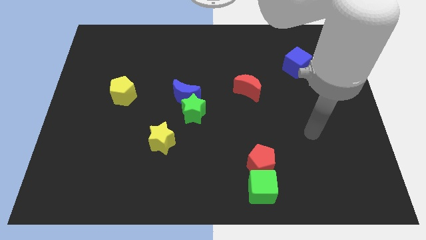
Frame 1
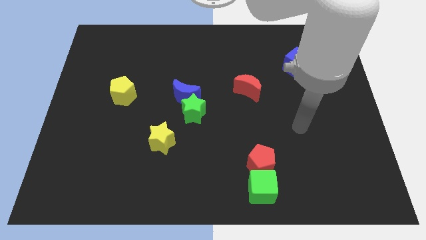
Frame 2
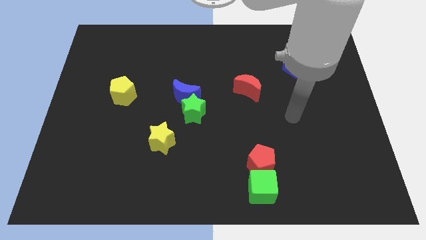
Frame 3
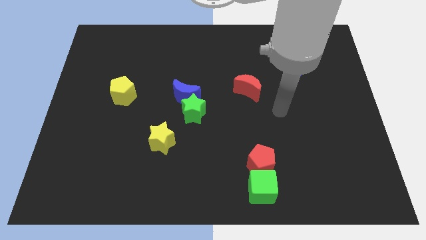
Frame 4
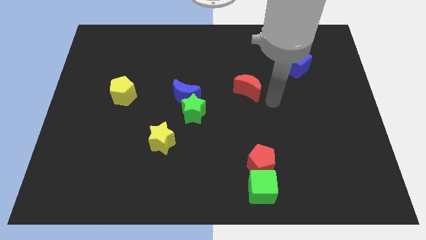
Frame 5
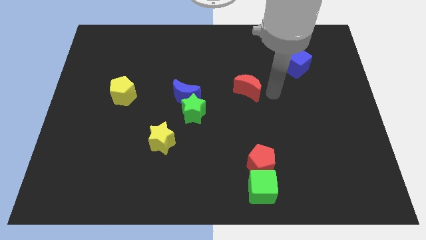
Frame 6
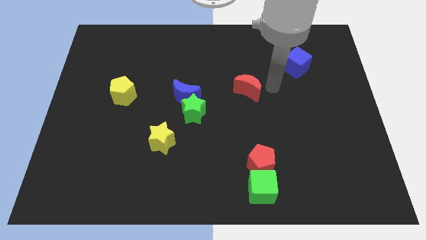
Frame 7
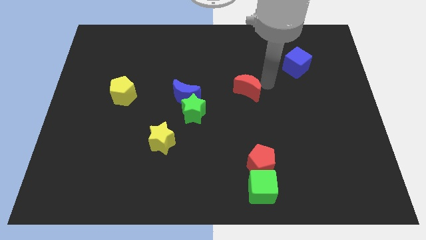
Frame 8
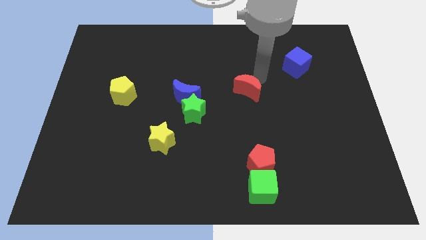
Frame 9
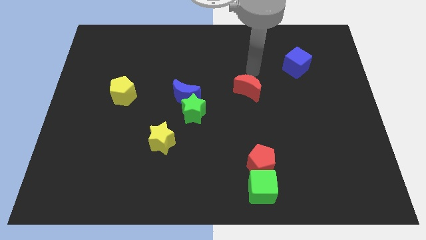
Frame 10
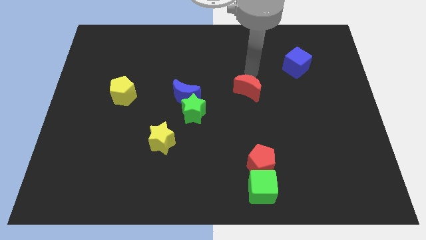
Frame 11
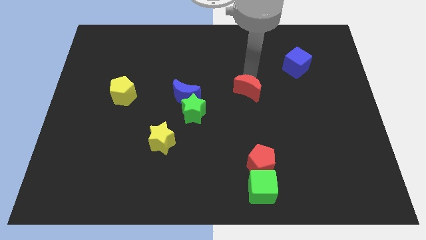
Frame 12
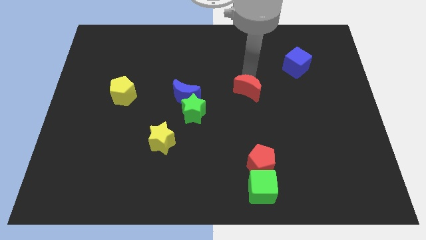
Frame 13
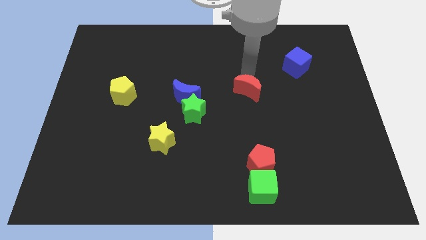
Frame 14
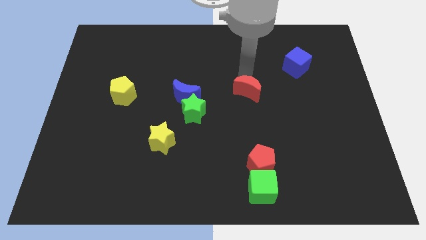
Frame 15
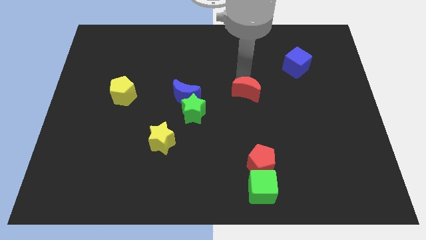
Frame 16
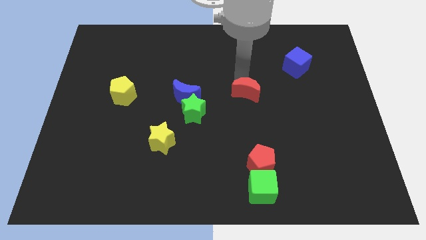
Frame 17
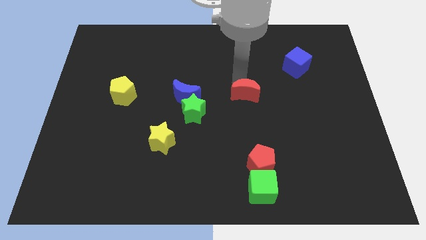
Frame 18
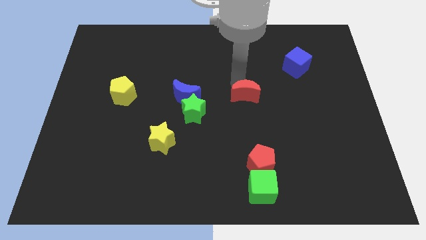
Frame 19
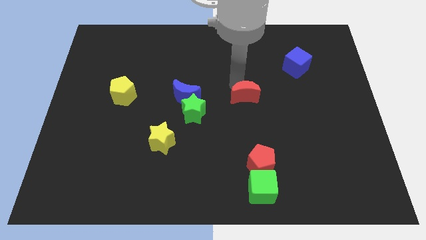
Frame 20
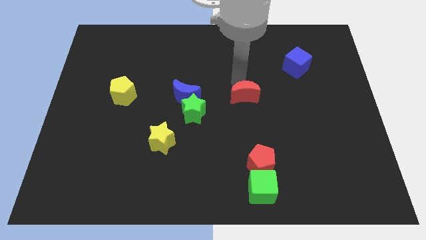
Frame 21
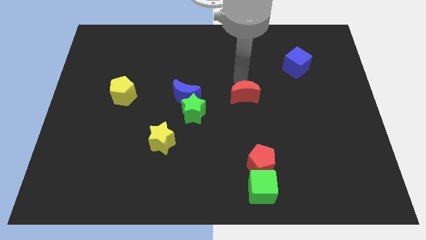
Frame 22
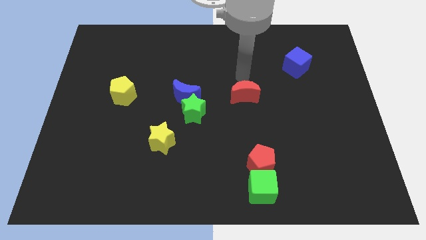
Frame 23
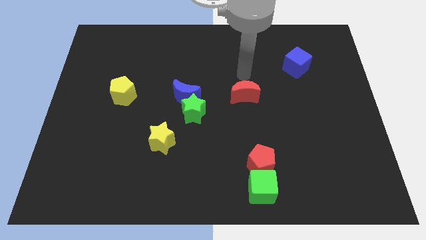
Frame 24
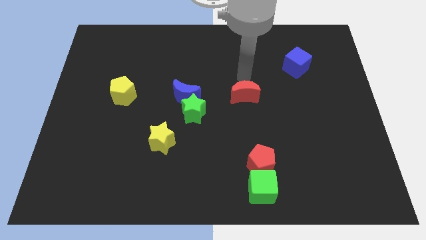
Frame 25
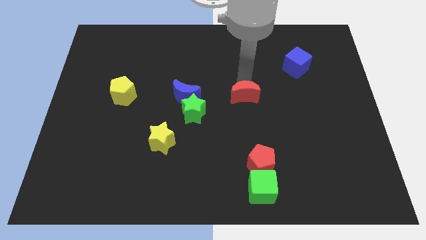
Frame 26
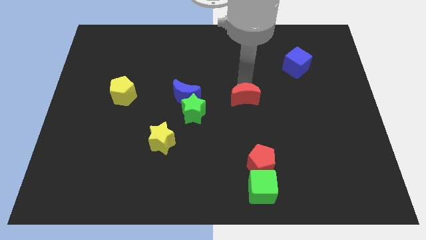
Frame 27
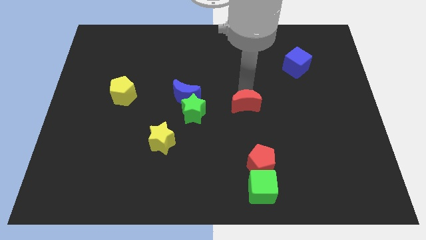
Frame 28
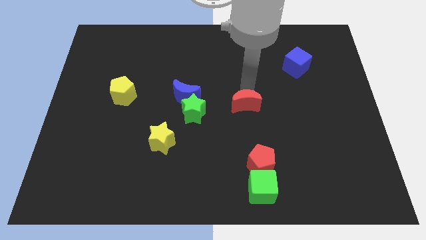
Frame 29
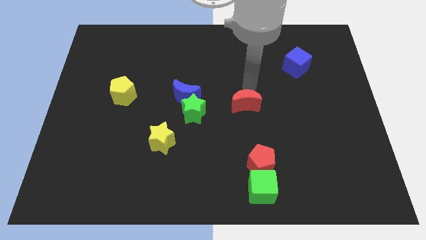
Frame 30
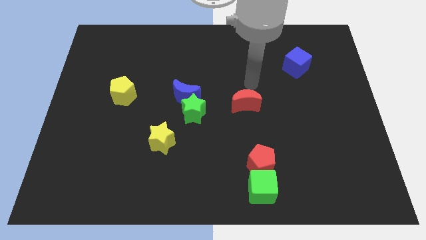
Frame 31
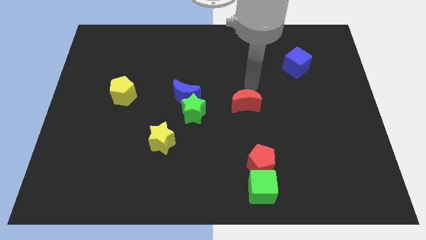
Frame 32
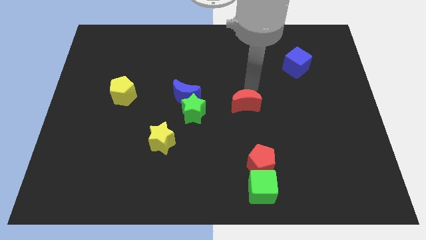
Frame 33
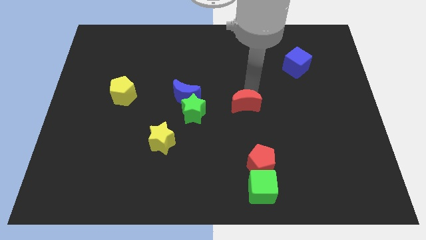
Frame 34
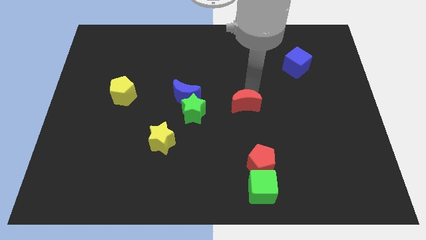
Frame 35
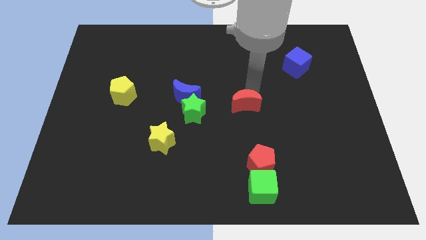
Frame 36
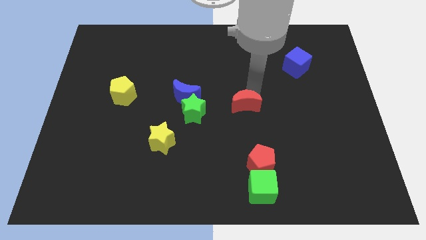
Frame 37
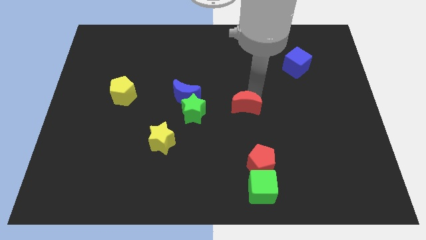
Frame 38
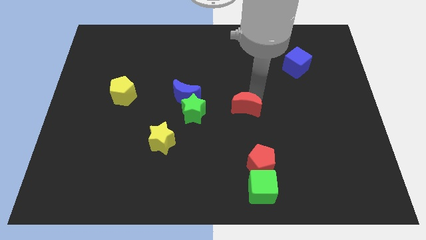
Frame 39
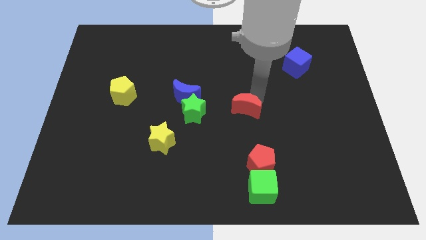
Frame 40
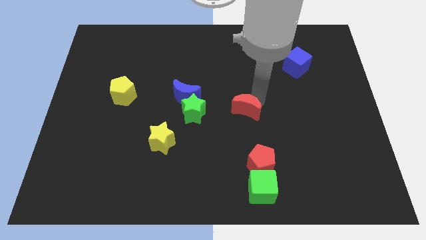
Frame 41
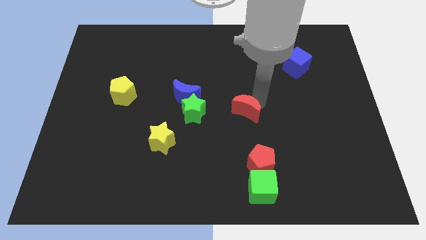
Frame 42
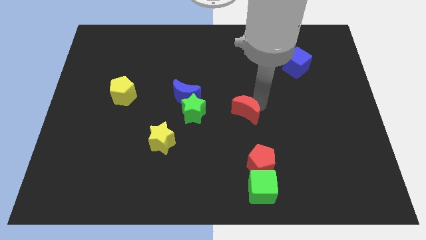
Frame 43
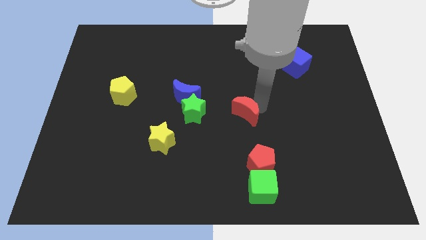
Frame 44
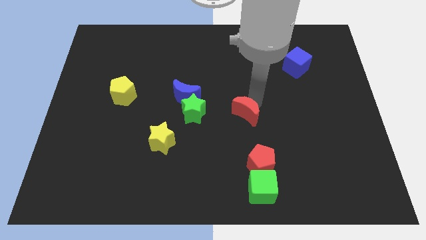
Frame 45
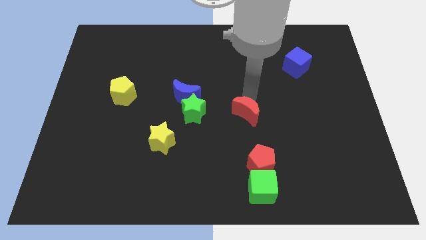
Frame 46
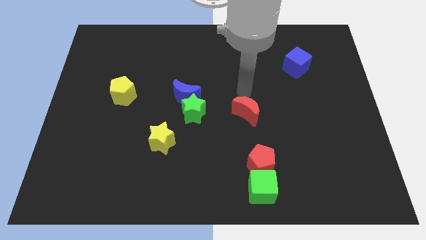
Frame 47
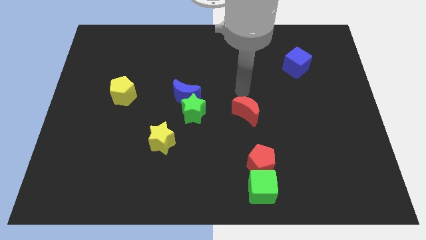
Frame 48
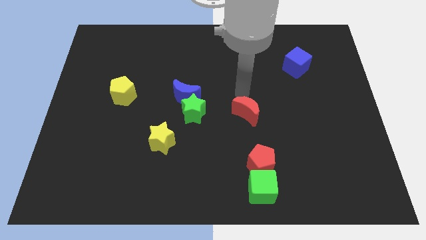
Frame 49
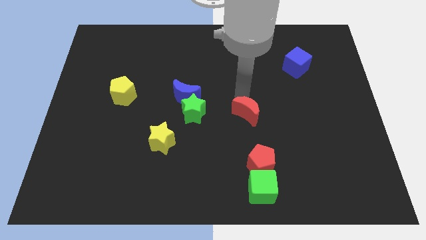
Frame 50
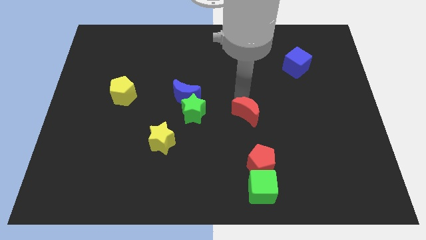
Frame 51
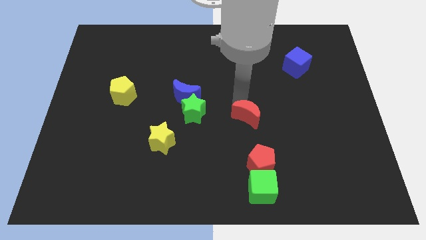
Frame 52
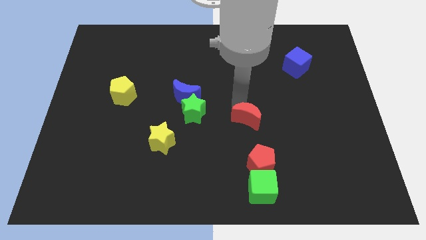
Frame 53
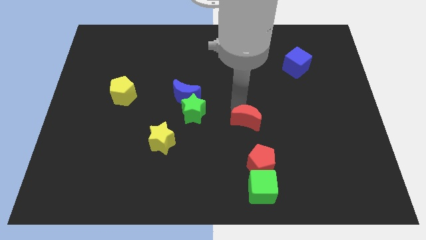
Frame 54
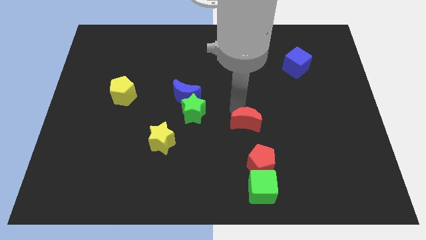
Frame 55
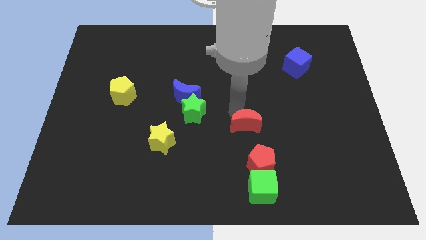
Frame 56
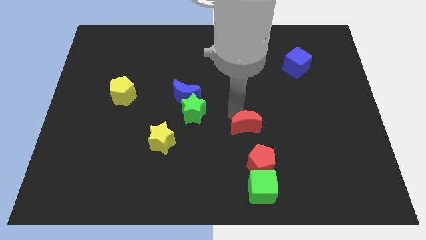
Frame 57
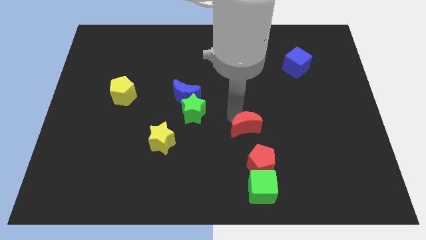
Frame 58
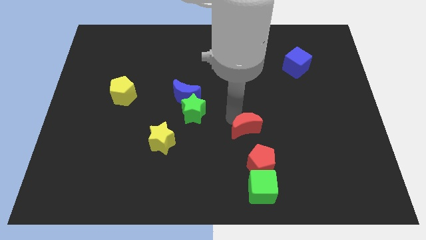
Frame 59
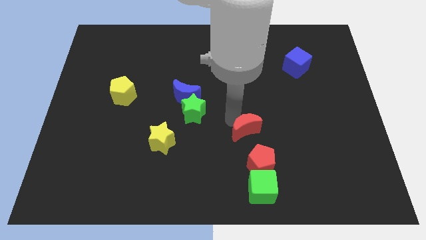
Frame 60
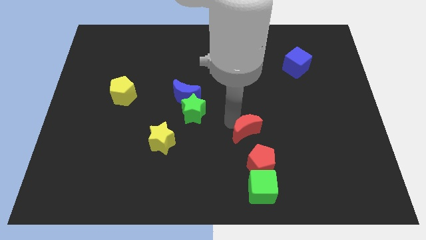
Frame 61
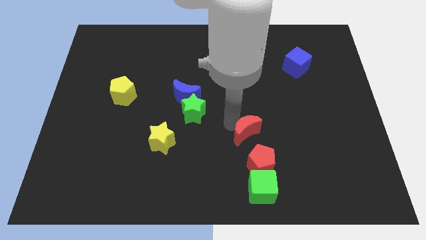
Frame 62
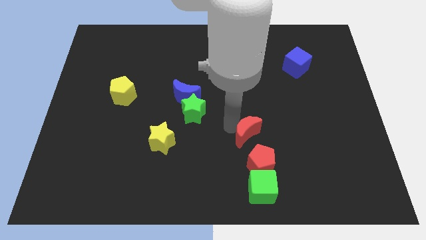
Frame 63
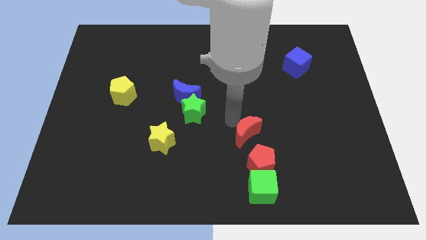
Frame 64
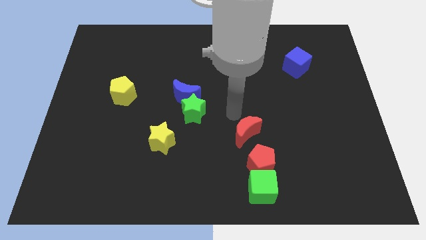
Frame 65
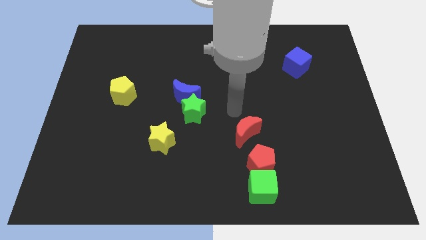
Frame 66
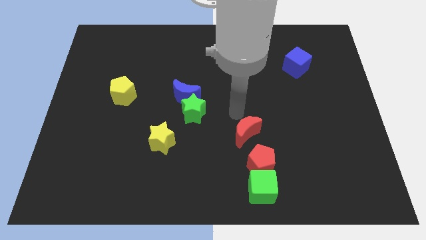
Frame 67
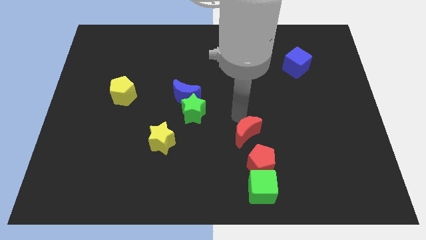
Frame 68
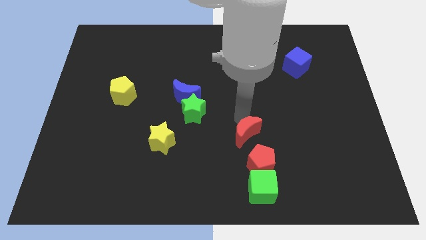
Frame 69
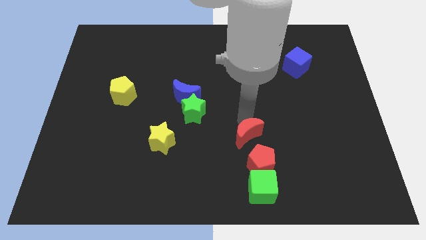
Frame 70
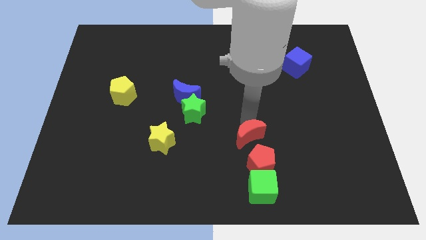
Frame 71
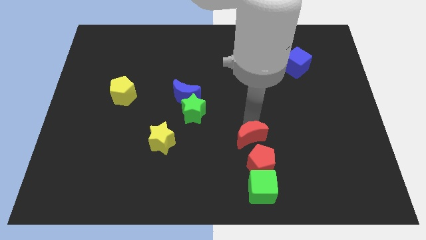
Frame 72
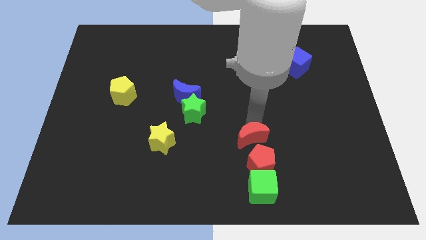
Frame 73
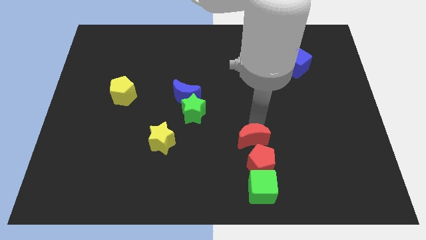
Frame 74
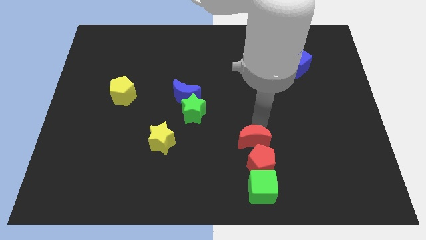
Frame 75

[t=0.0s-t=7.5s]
move the red moon towards the red pentagon
